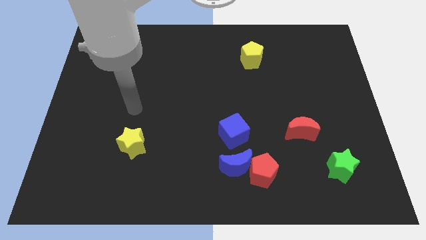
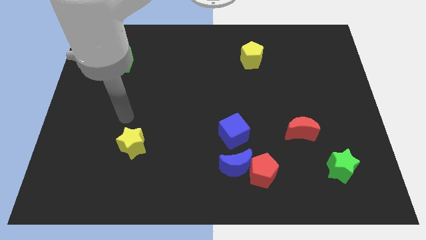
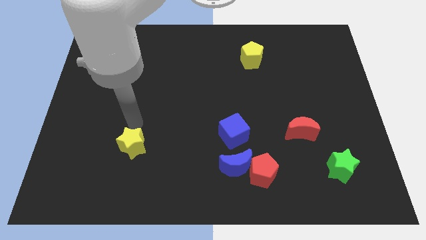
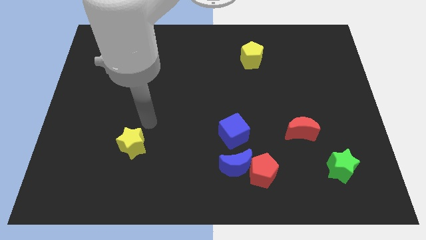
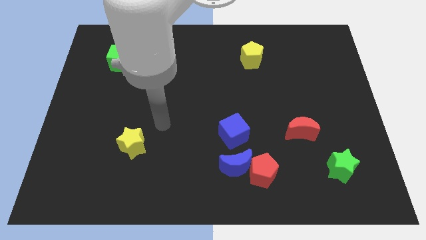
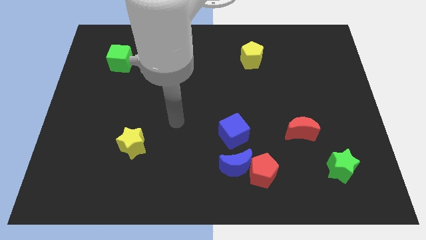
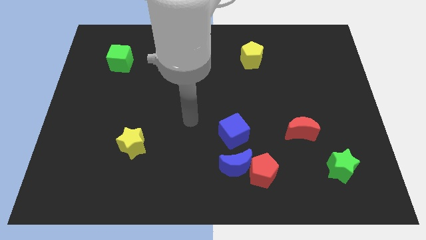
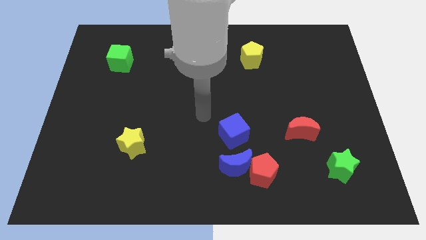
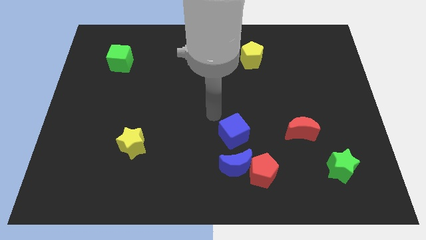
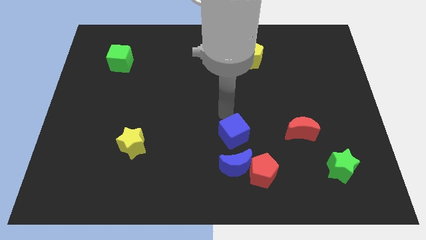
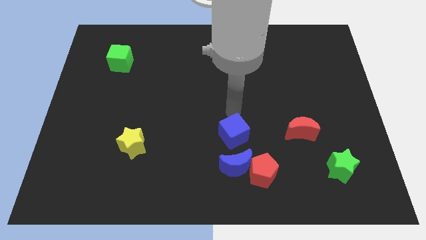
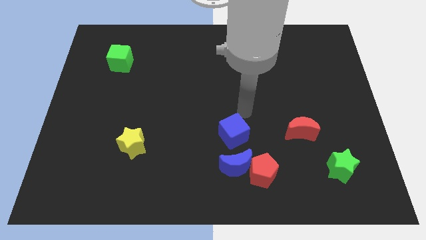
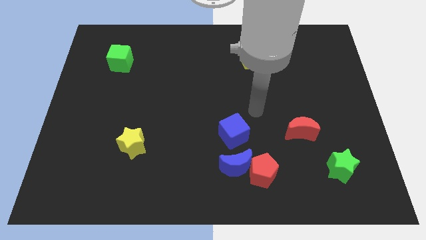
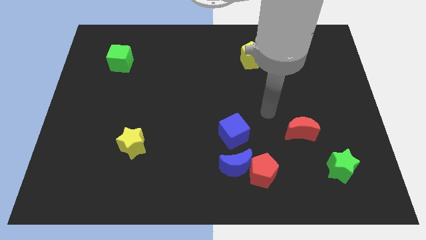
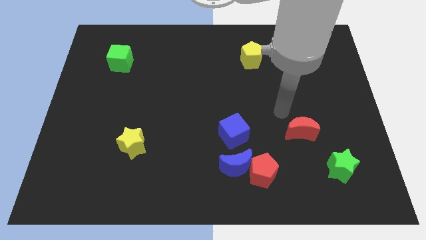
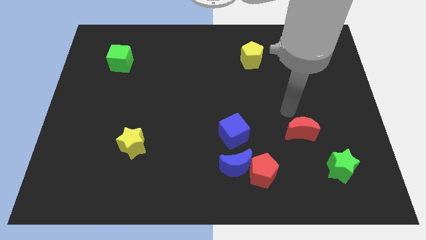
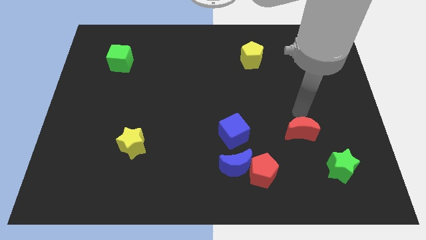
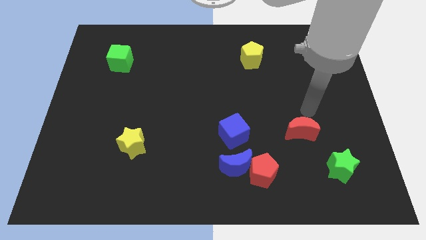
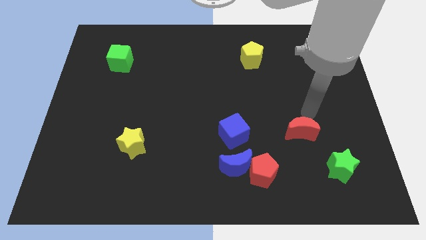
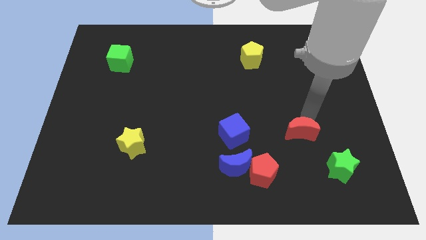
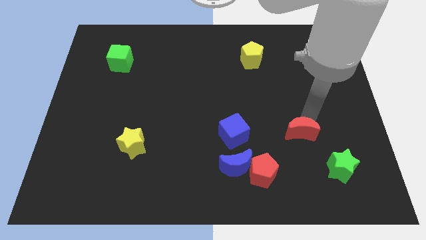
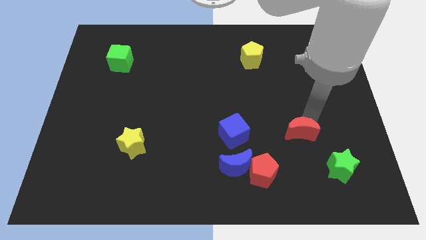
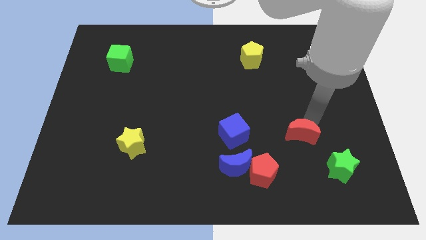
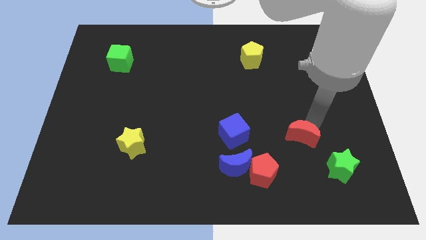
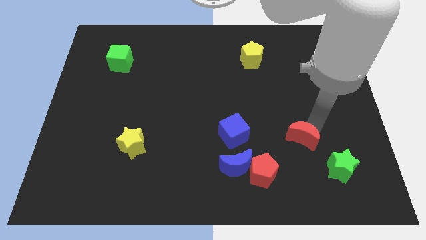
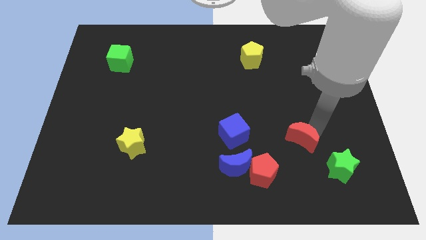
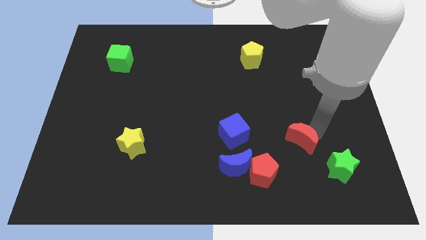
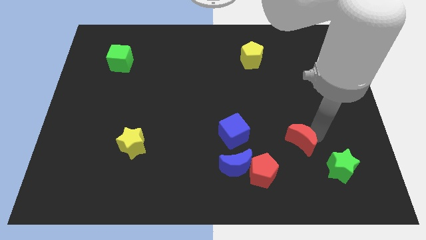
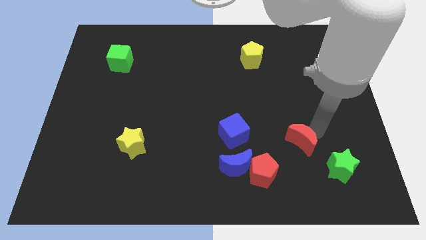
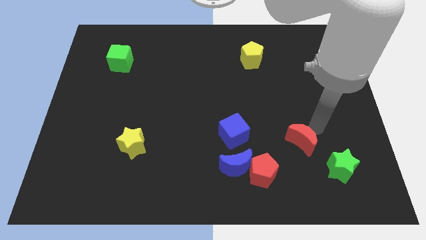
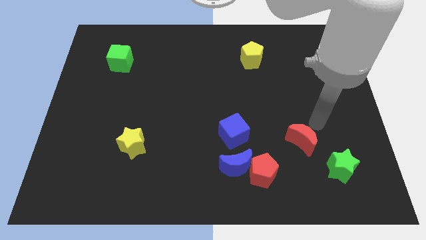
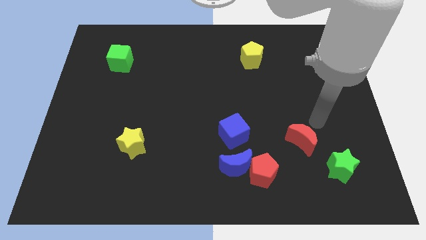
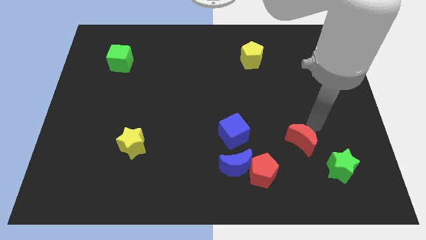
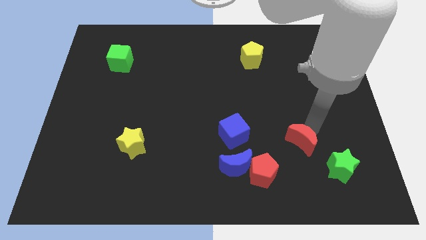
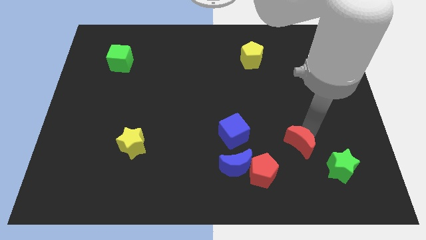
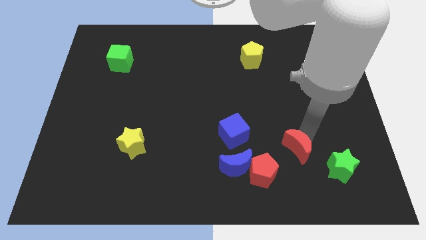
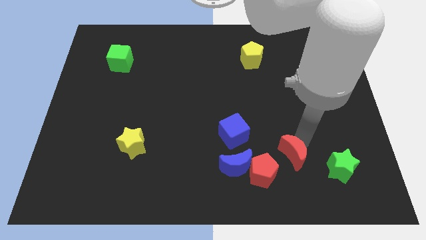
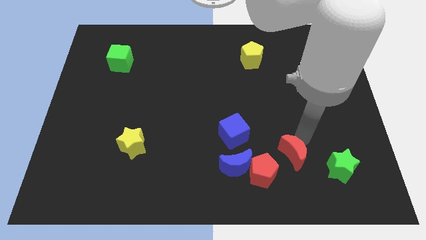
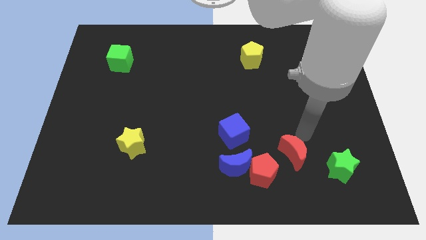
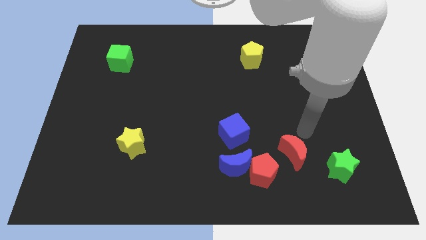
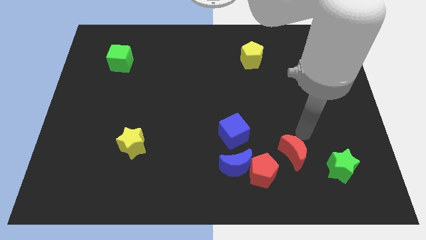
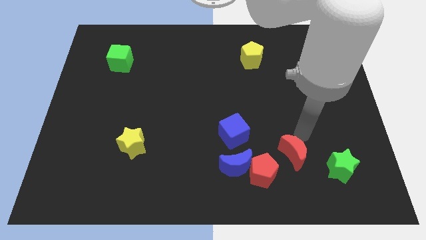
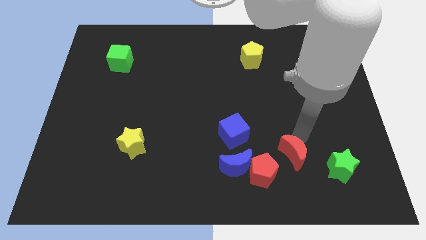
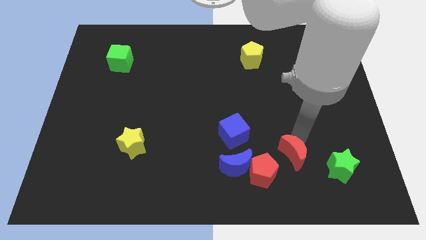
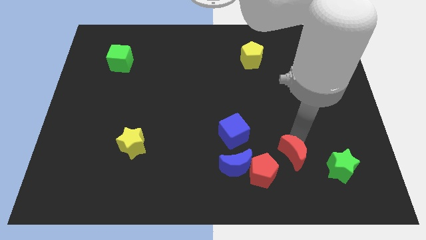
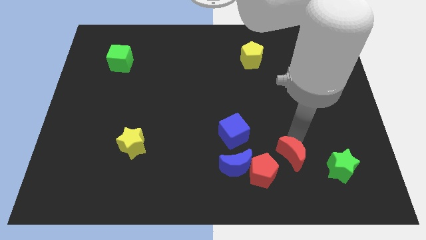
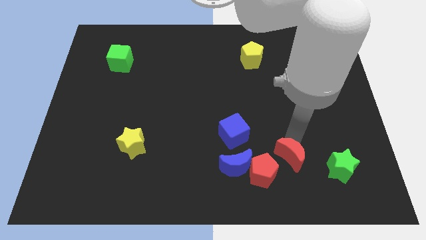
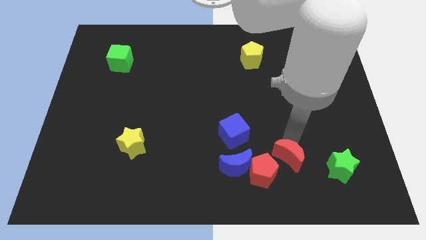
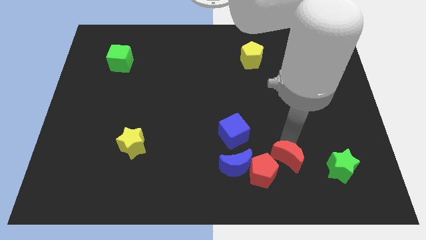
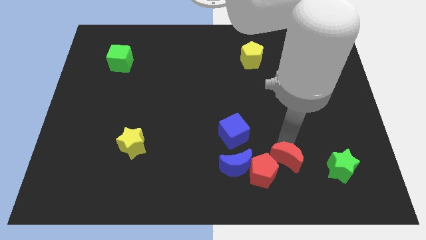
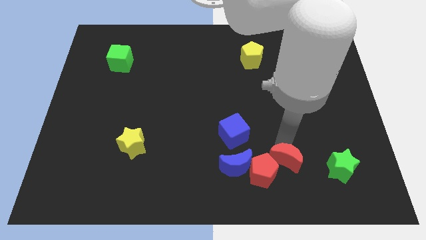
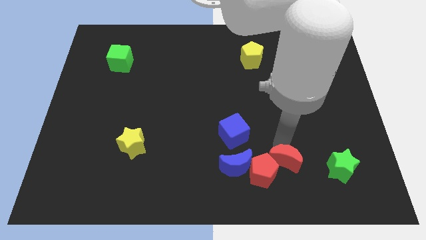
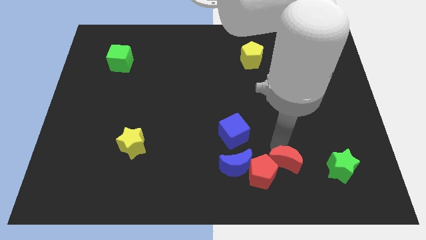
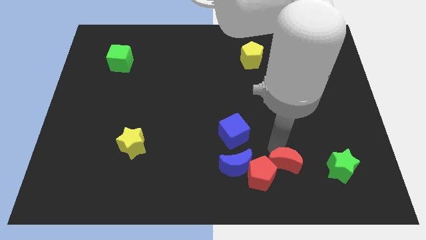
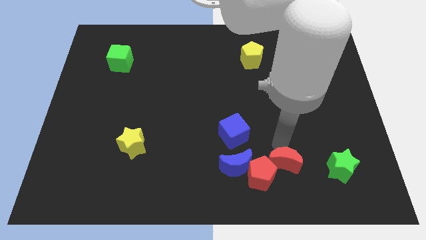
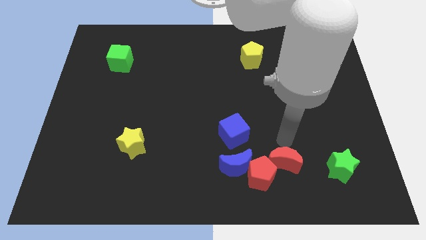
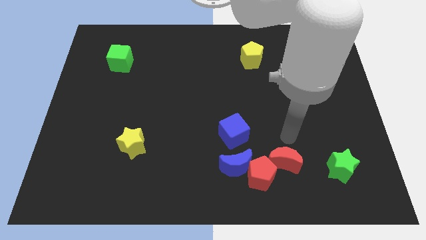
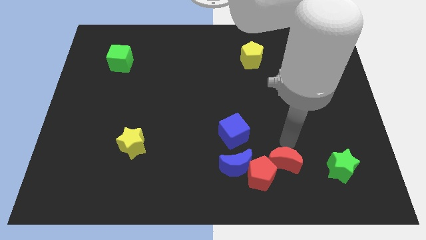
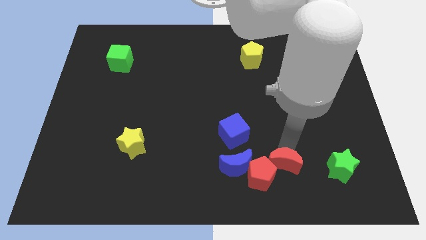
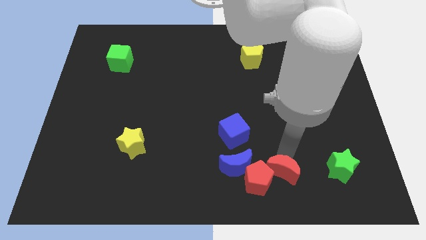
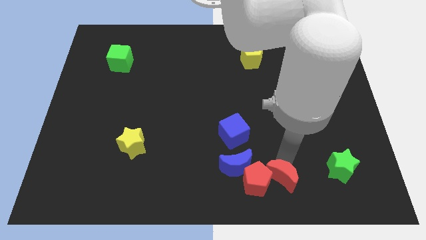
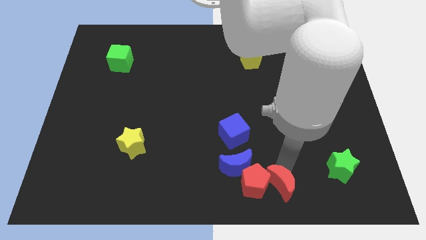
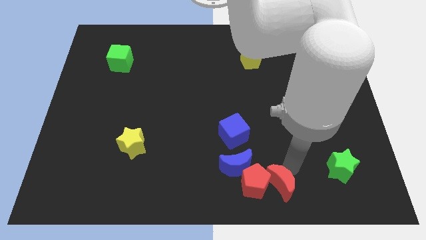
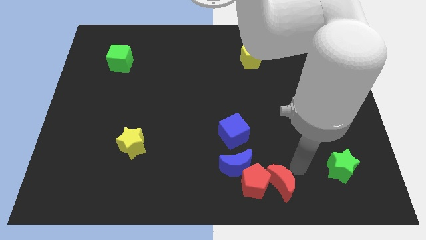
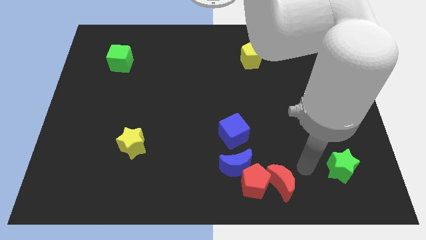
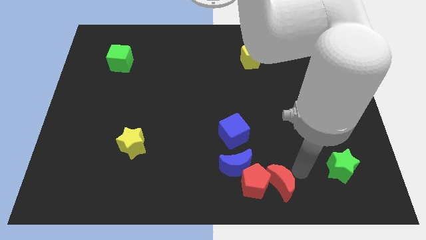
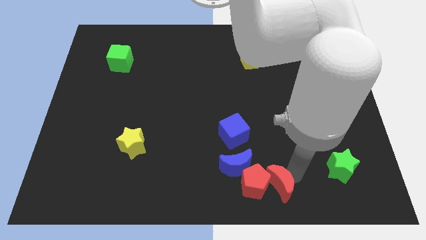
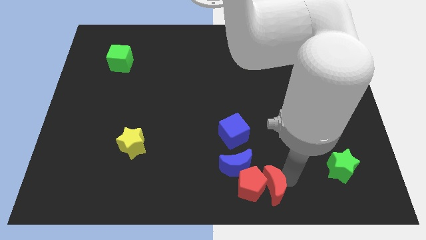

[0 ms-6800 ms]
put the red moon to the bottom side
